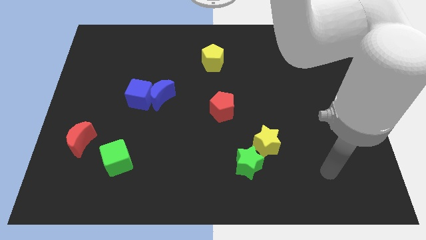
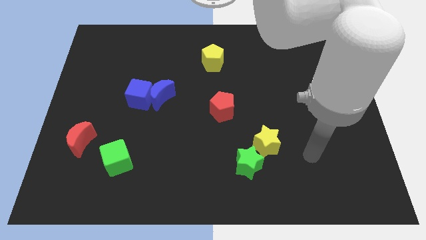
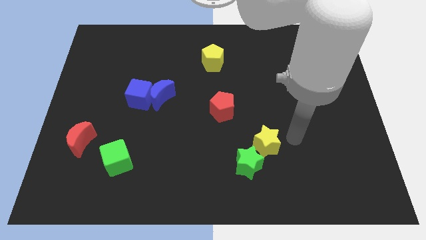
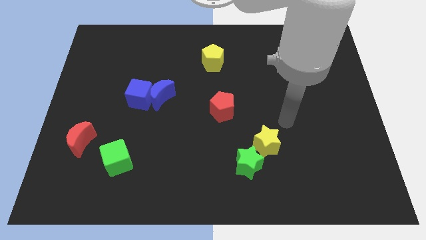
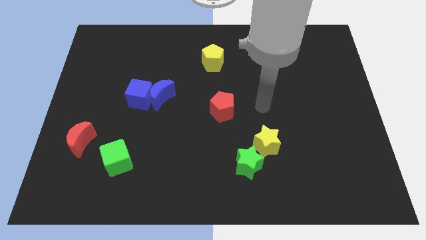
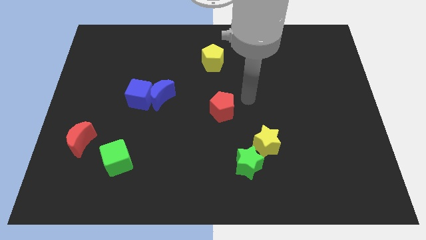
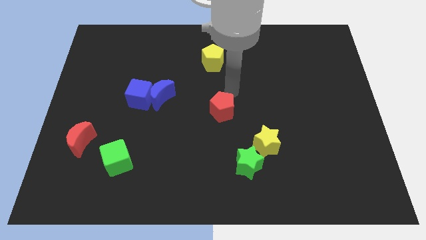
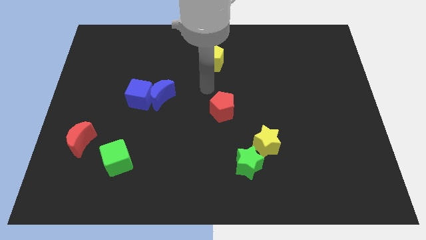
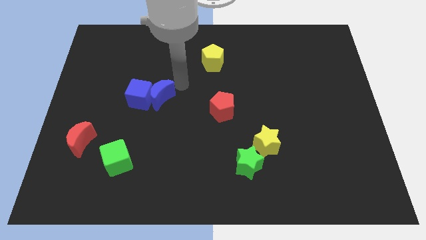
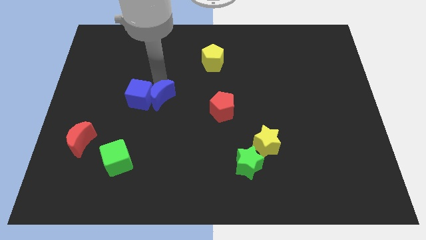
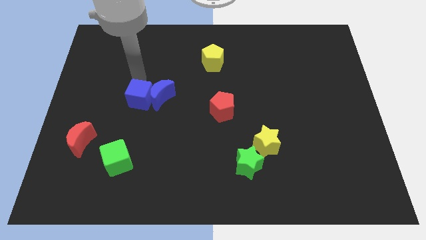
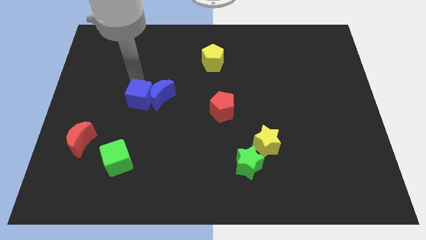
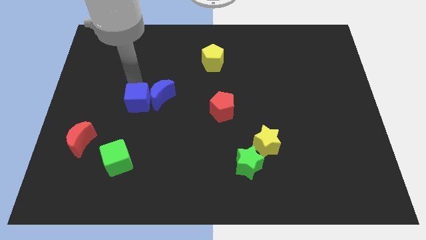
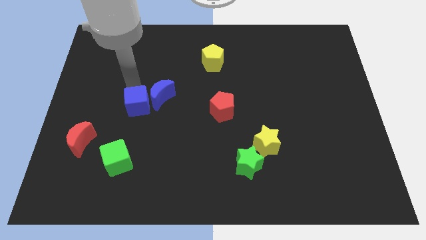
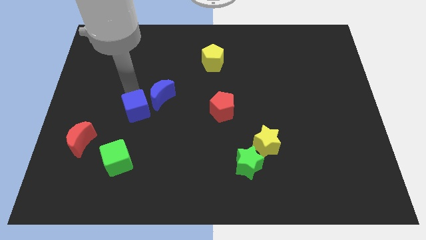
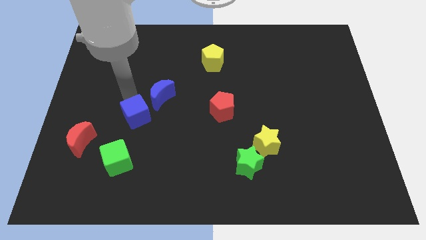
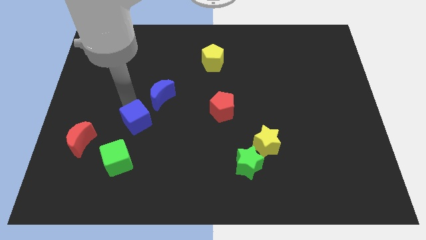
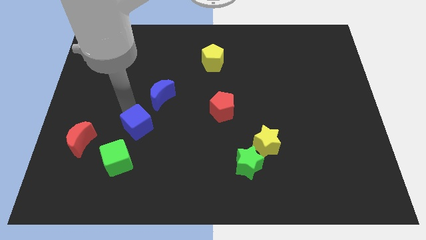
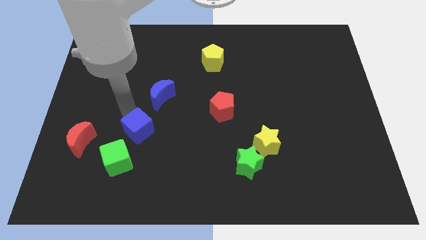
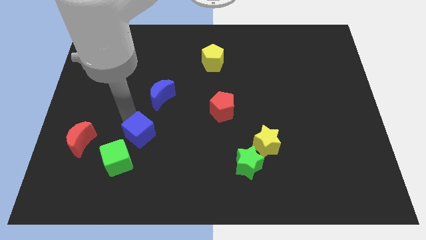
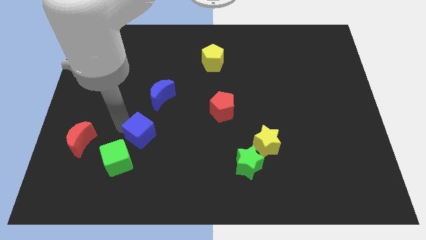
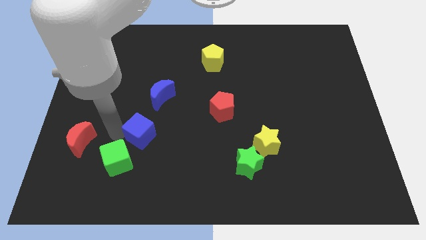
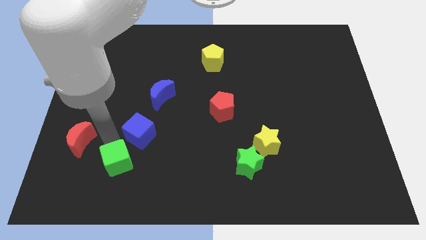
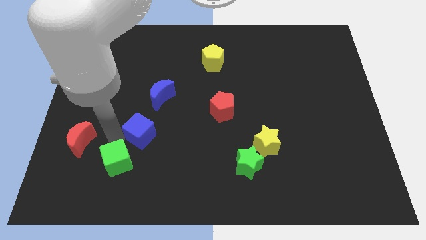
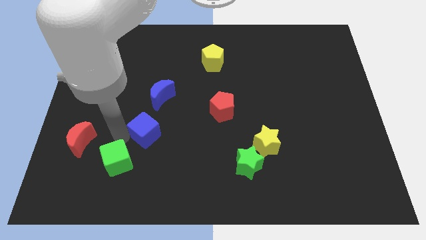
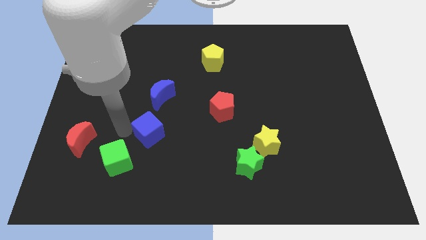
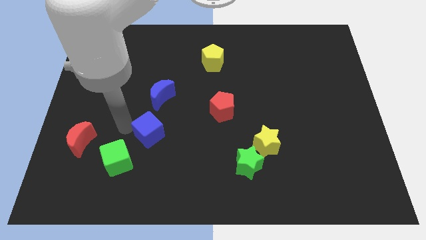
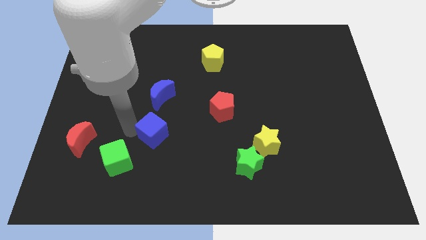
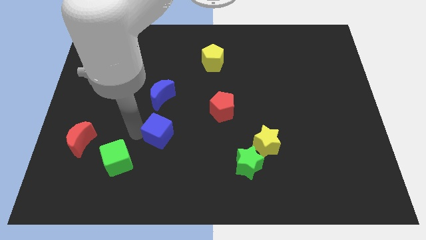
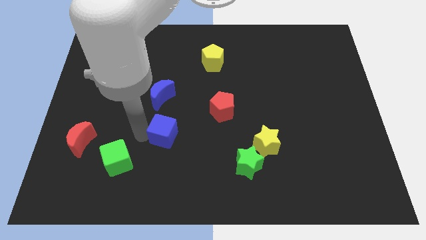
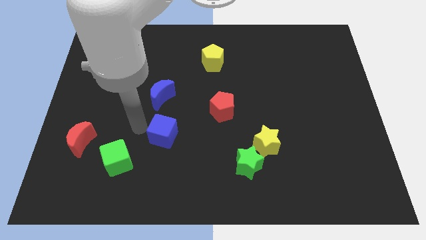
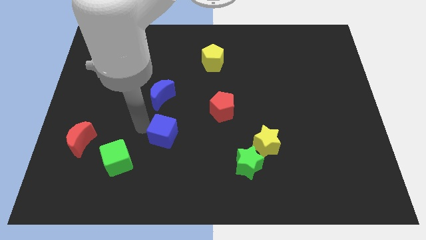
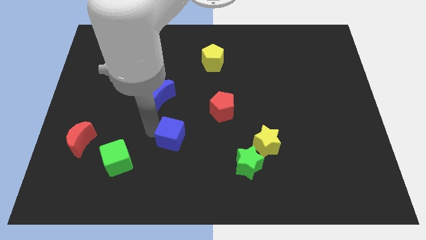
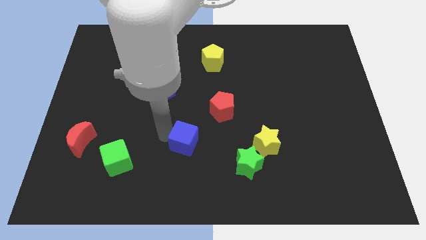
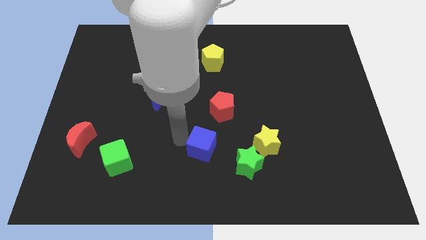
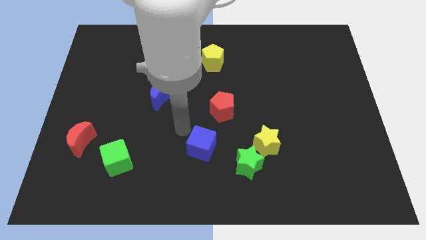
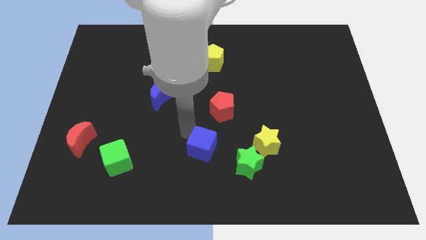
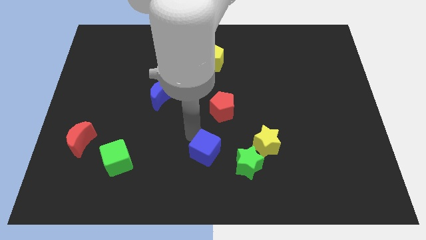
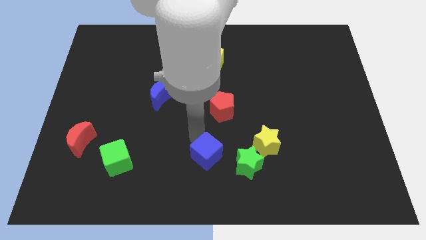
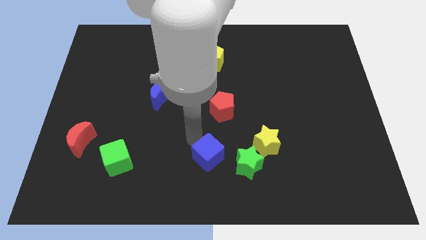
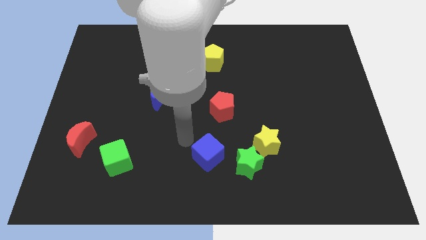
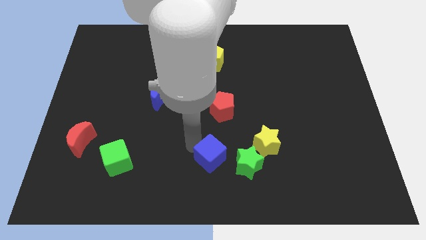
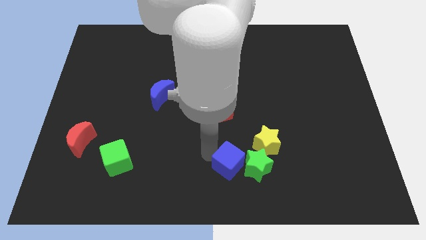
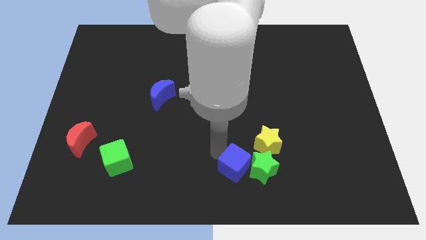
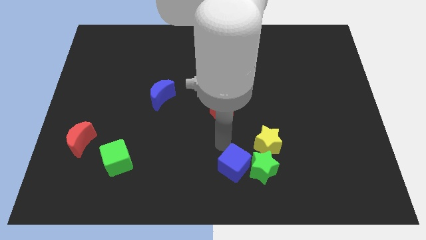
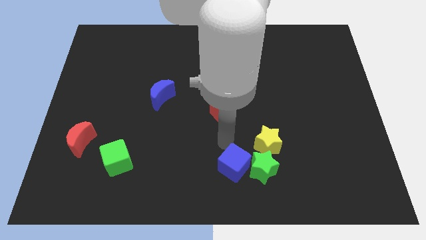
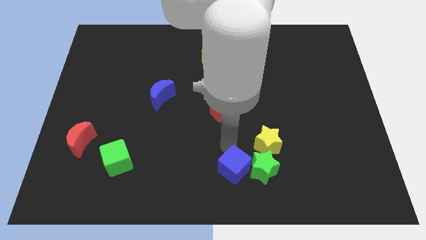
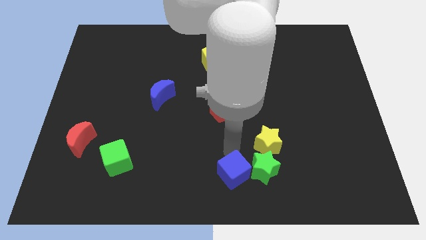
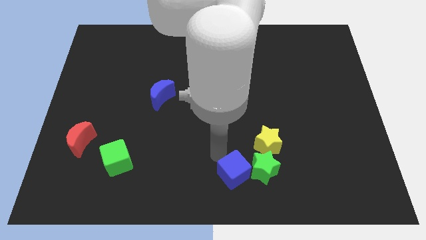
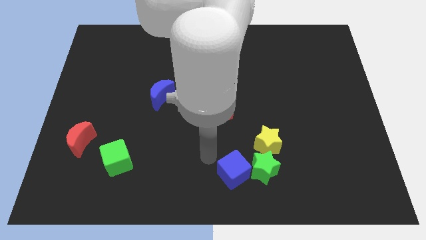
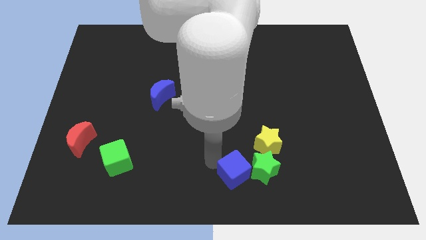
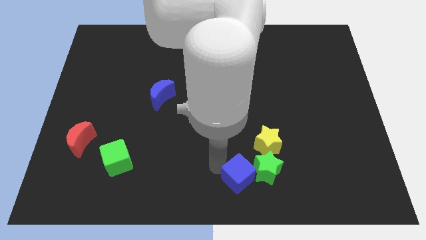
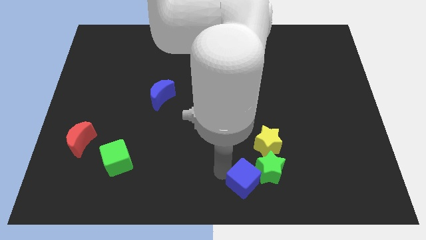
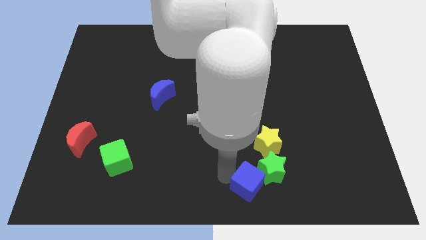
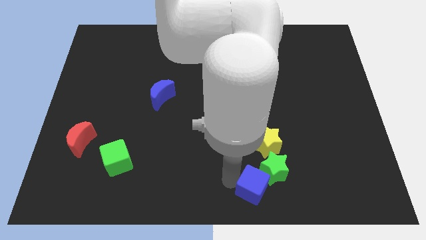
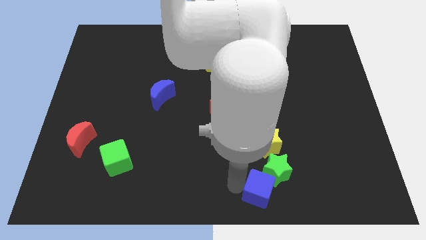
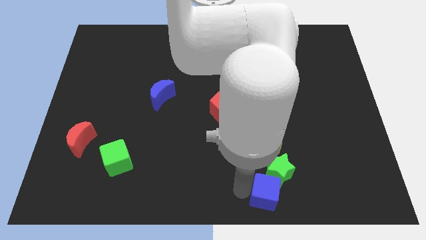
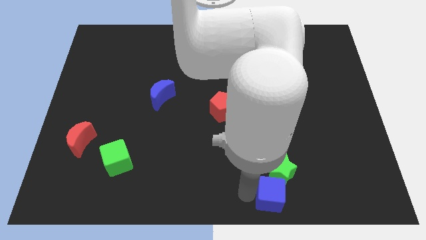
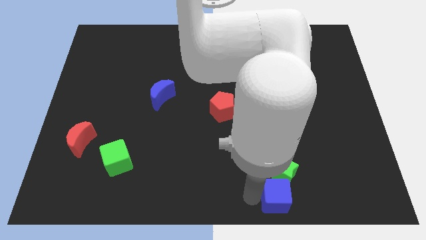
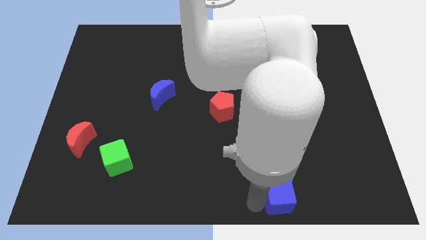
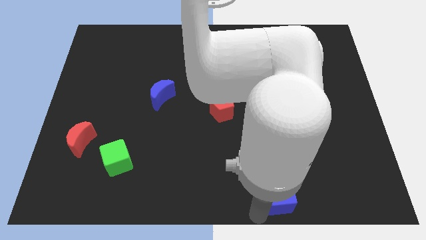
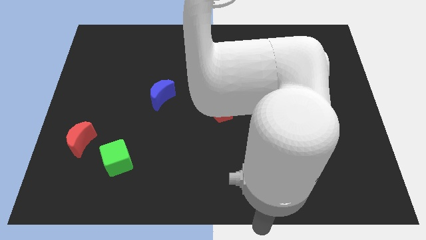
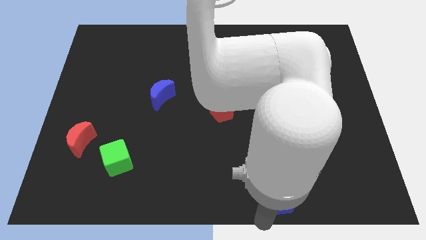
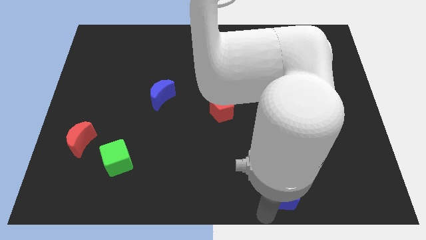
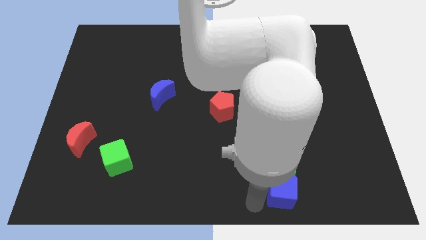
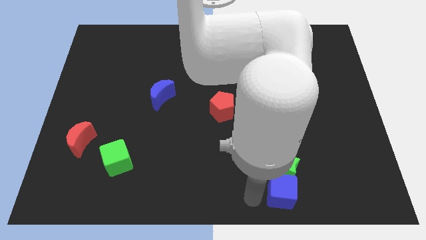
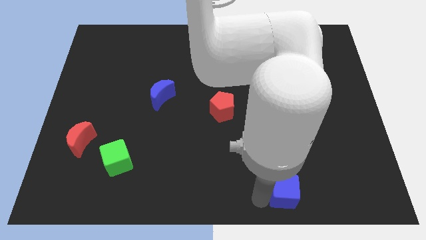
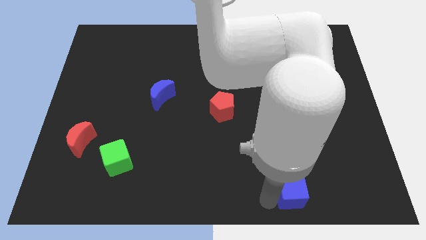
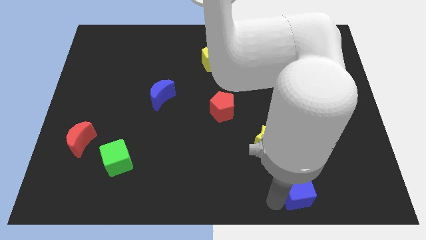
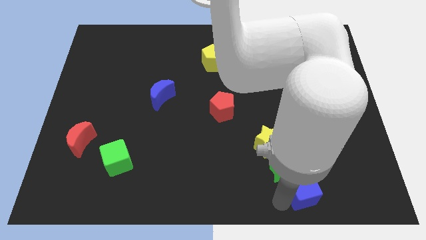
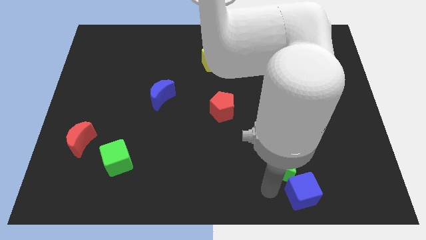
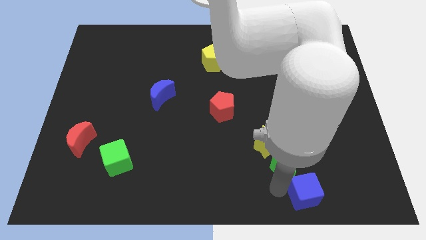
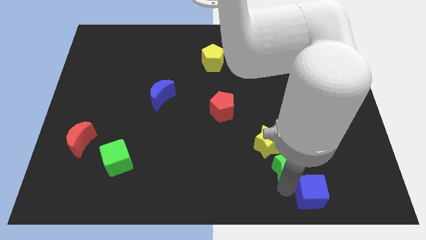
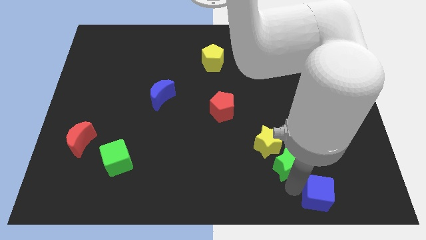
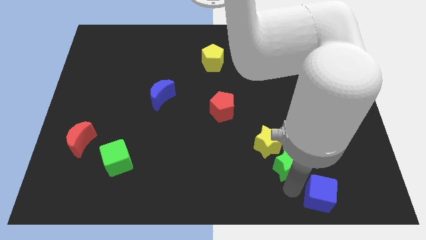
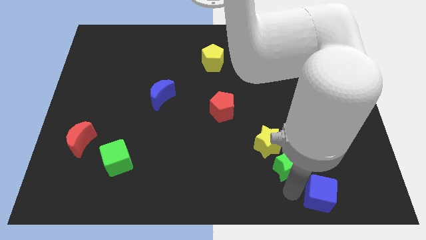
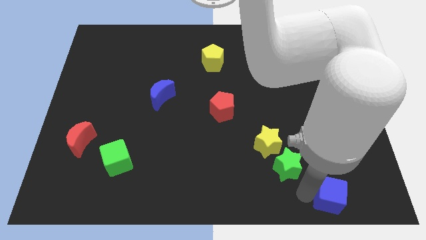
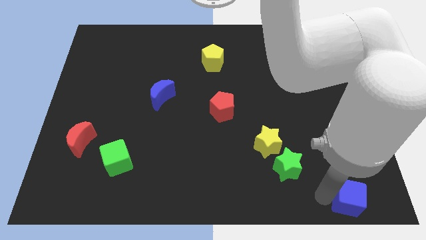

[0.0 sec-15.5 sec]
put the blue cube to the bottom right corner
